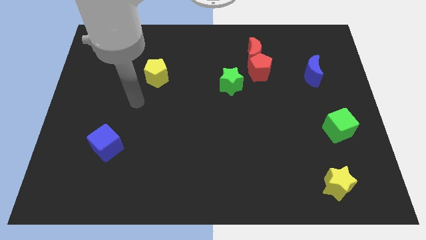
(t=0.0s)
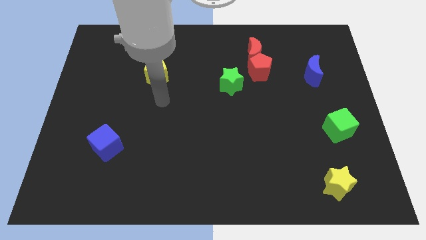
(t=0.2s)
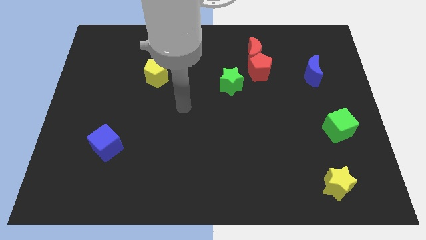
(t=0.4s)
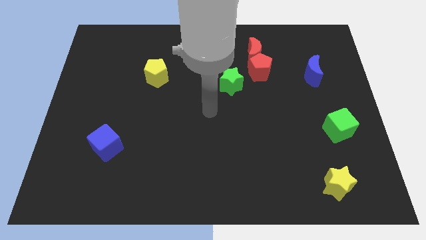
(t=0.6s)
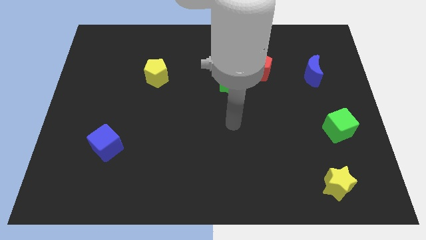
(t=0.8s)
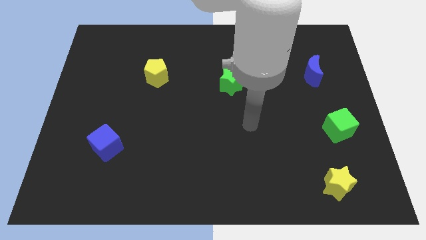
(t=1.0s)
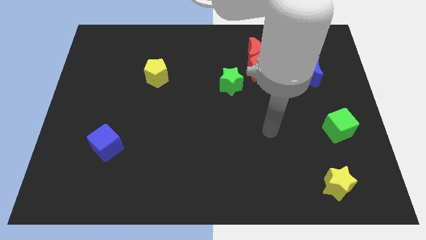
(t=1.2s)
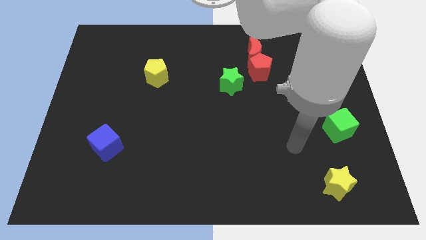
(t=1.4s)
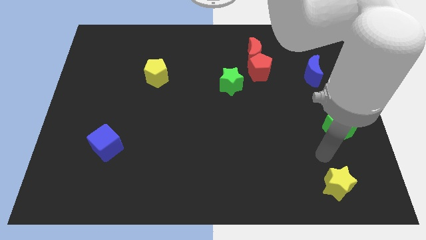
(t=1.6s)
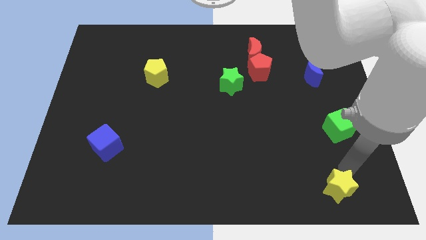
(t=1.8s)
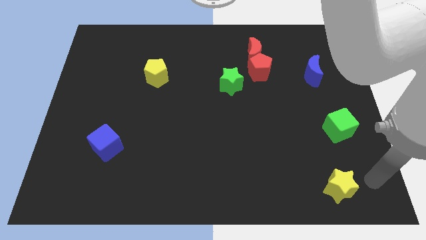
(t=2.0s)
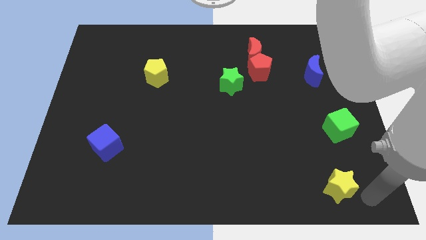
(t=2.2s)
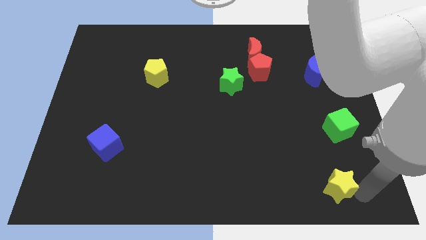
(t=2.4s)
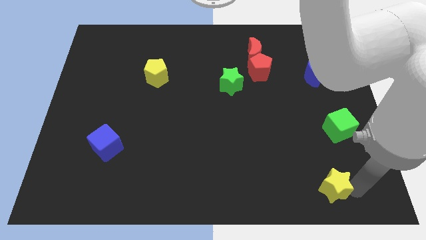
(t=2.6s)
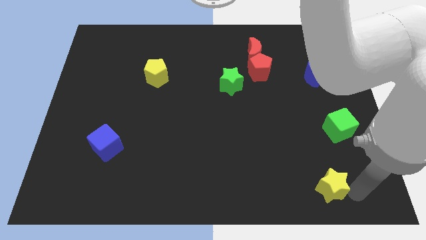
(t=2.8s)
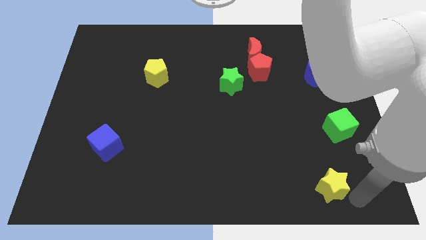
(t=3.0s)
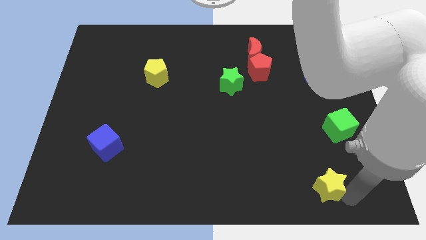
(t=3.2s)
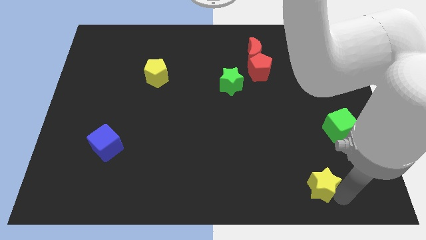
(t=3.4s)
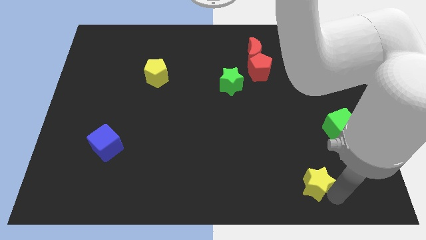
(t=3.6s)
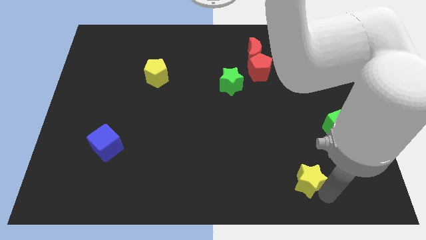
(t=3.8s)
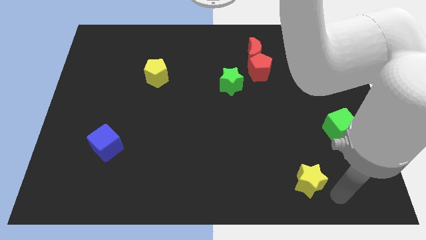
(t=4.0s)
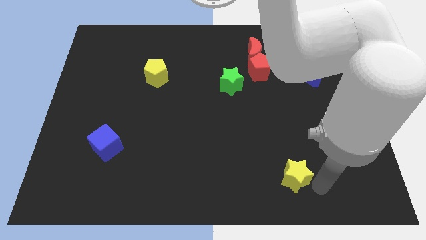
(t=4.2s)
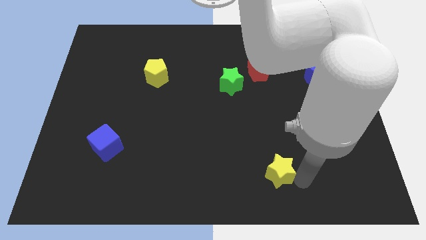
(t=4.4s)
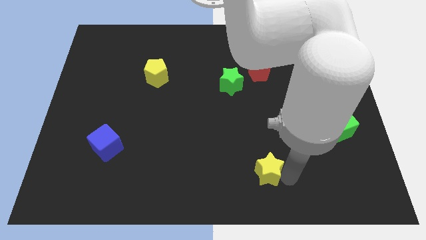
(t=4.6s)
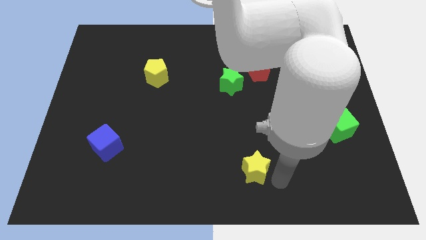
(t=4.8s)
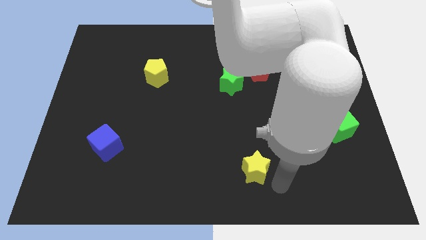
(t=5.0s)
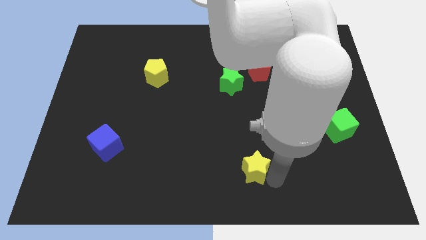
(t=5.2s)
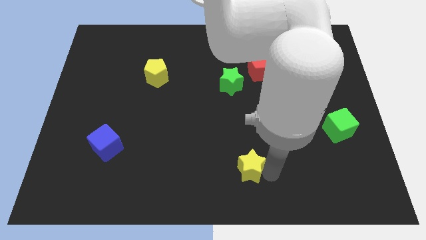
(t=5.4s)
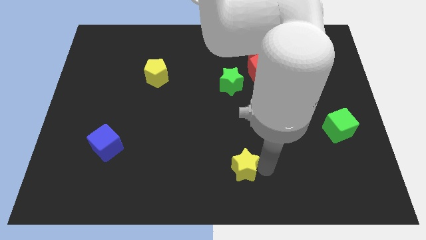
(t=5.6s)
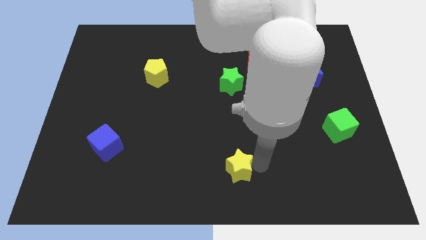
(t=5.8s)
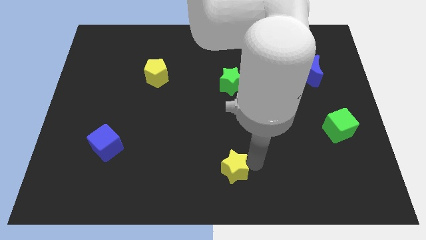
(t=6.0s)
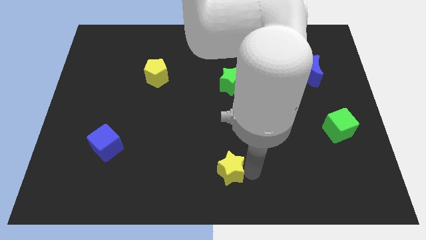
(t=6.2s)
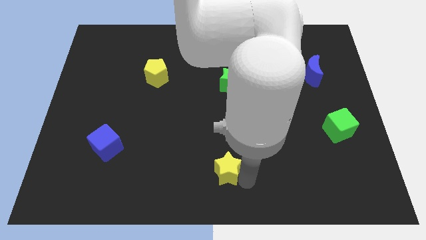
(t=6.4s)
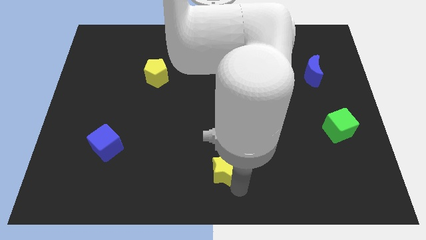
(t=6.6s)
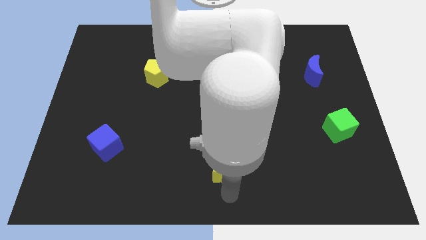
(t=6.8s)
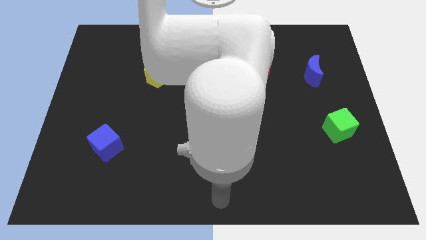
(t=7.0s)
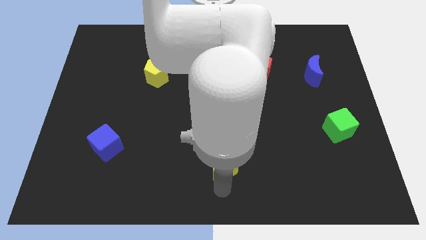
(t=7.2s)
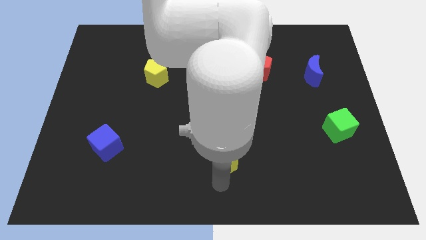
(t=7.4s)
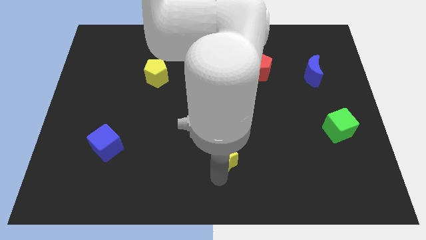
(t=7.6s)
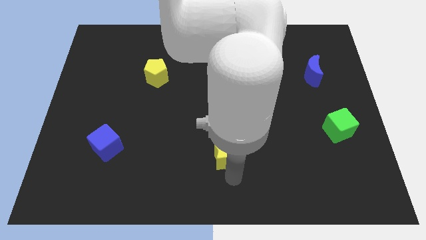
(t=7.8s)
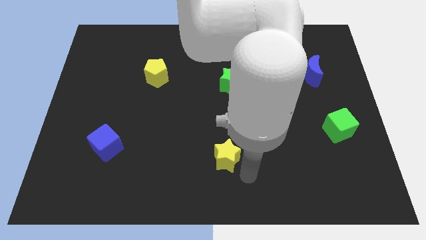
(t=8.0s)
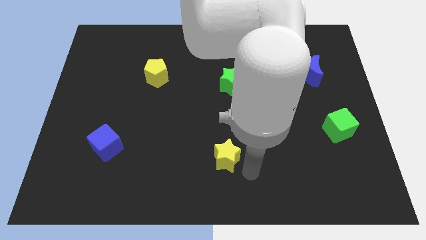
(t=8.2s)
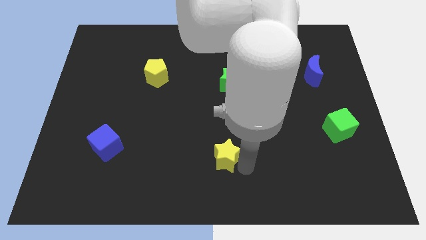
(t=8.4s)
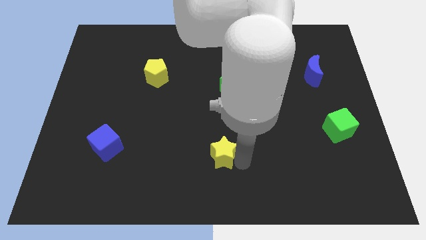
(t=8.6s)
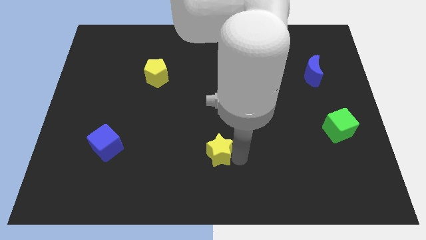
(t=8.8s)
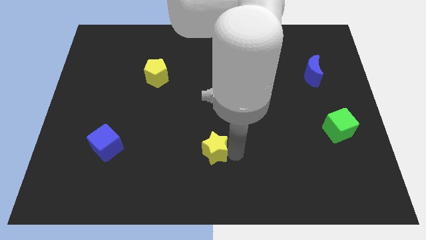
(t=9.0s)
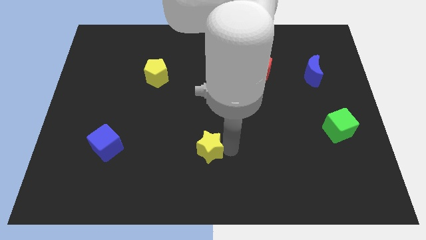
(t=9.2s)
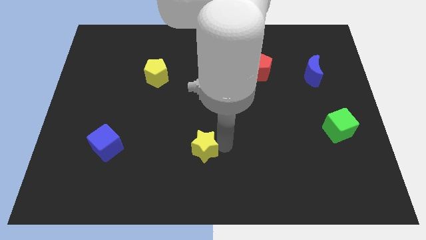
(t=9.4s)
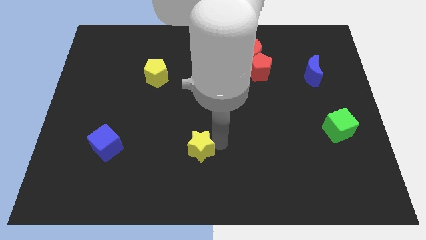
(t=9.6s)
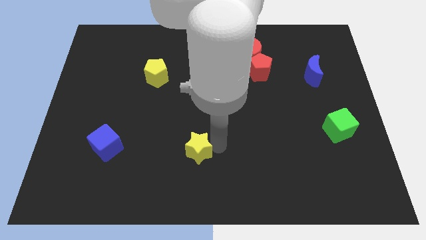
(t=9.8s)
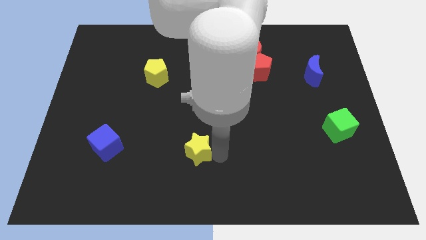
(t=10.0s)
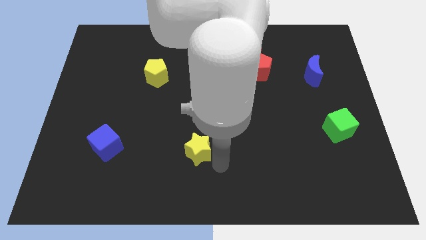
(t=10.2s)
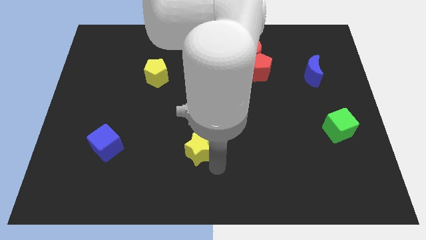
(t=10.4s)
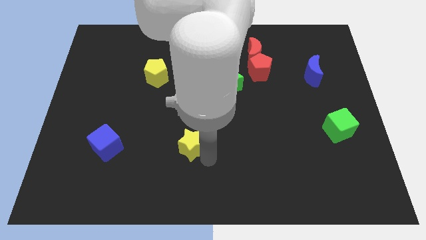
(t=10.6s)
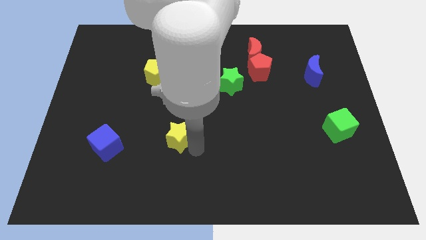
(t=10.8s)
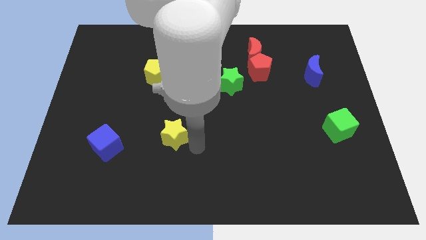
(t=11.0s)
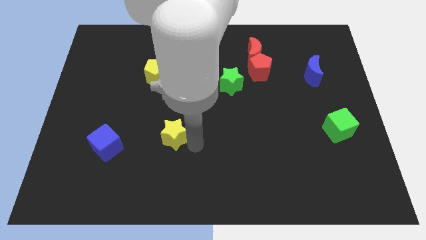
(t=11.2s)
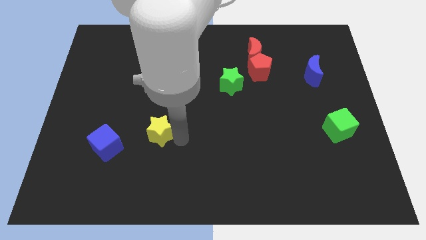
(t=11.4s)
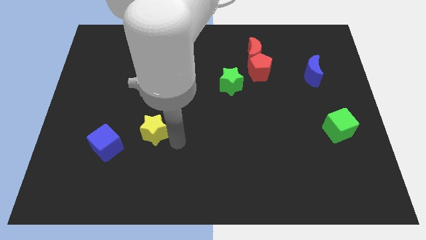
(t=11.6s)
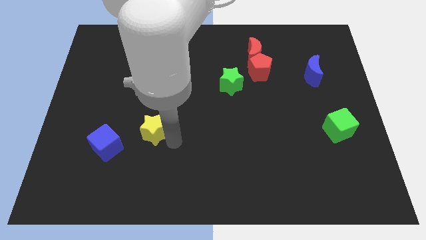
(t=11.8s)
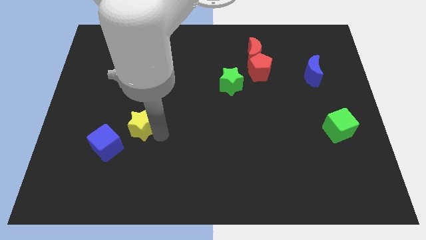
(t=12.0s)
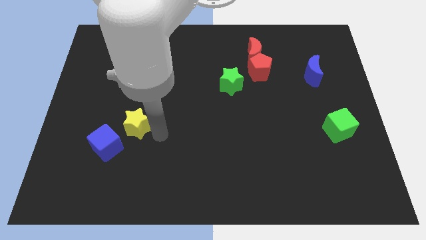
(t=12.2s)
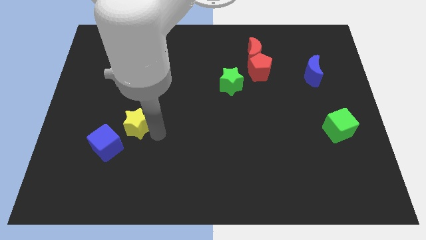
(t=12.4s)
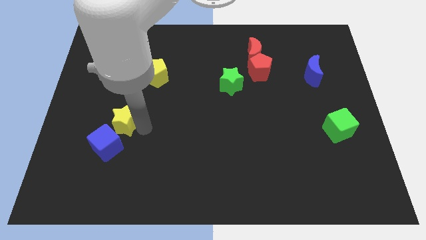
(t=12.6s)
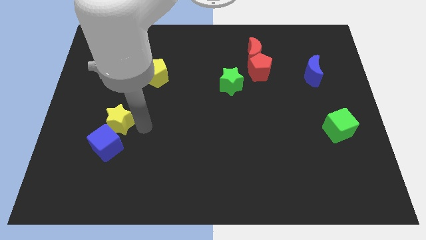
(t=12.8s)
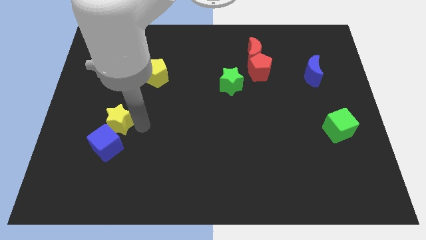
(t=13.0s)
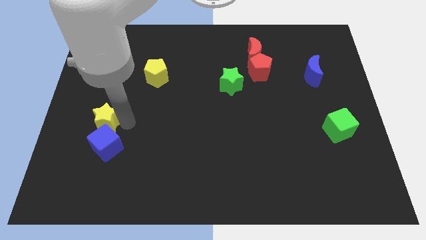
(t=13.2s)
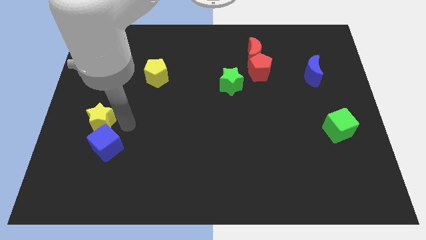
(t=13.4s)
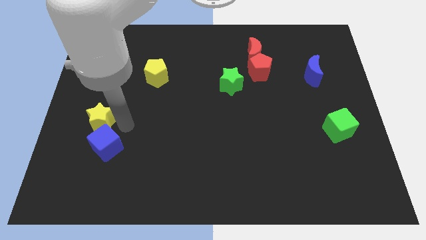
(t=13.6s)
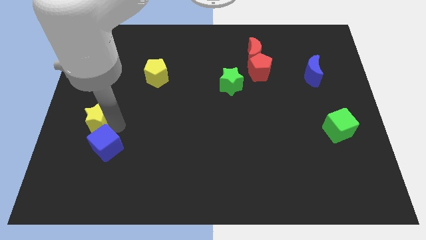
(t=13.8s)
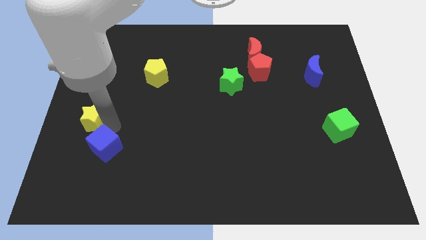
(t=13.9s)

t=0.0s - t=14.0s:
slide the yellow star to the center left
